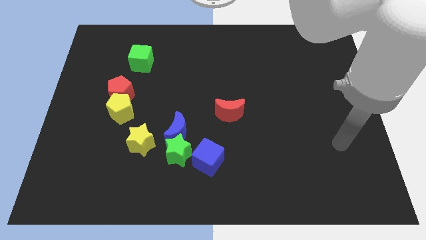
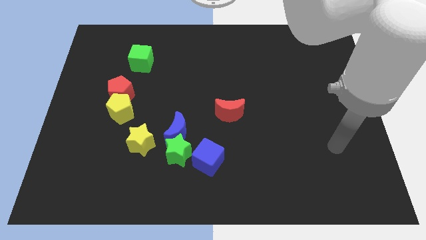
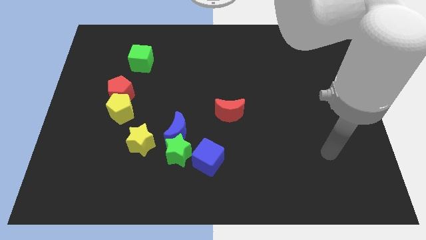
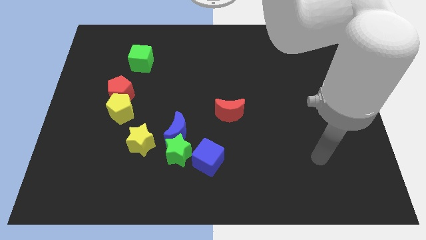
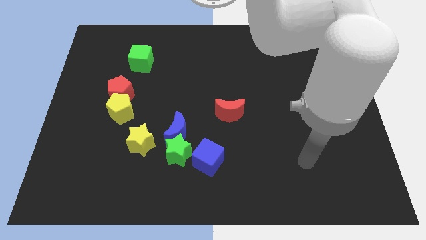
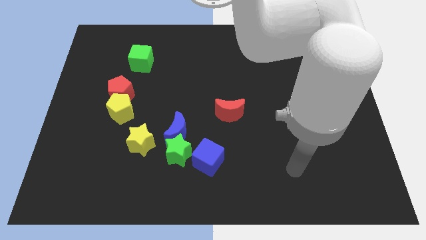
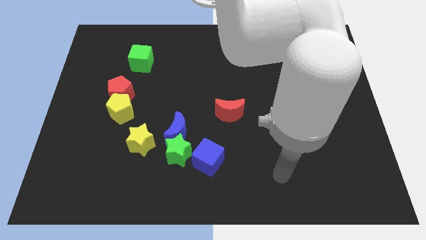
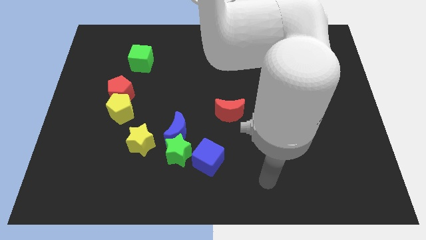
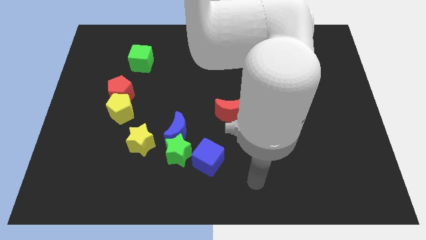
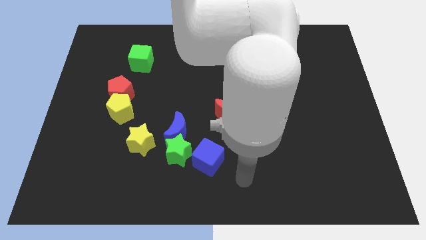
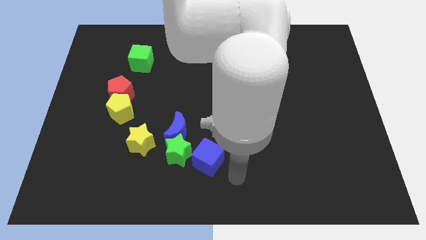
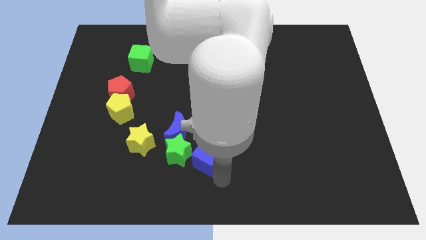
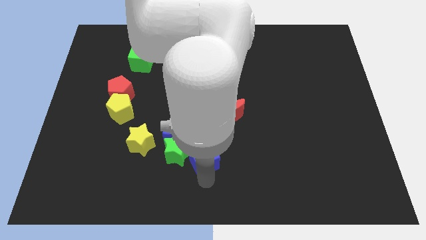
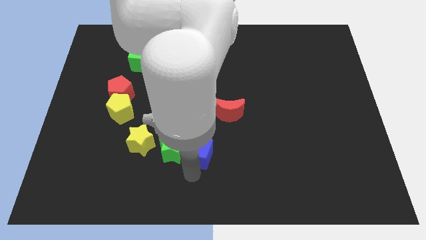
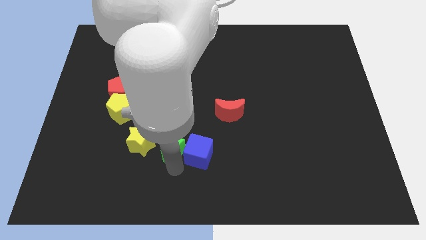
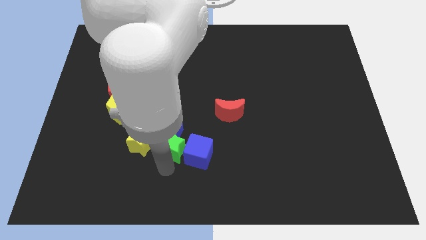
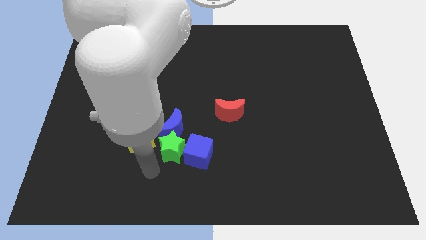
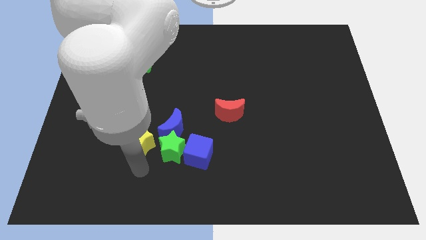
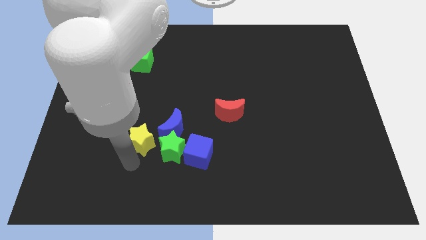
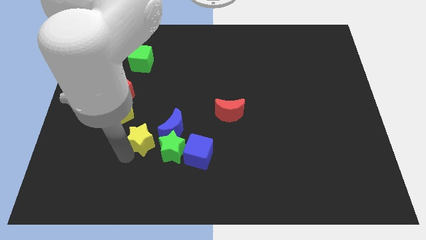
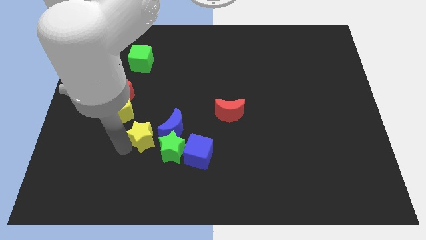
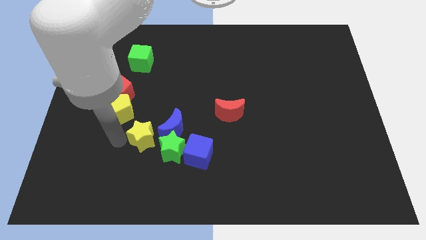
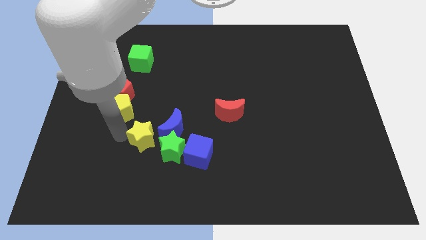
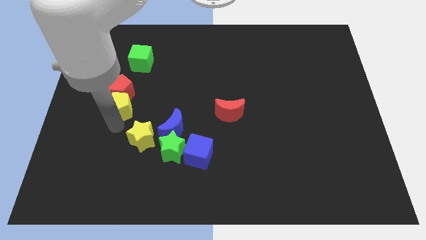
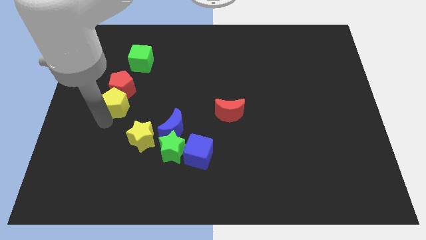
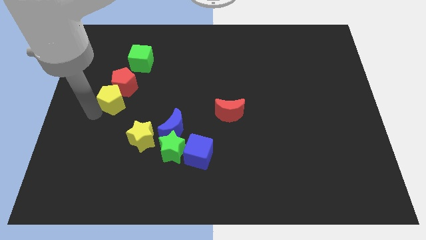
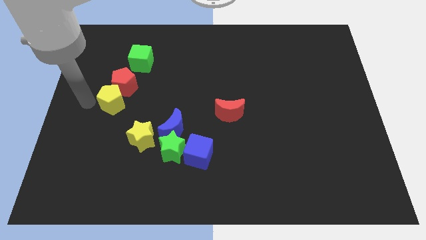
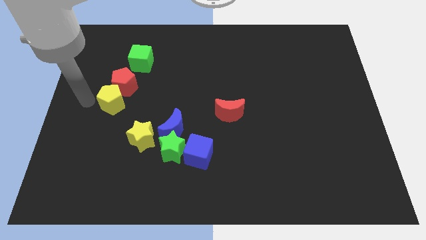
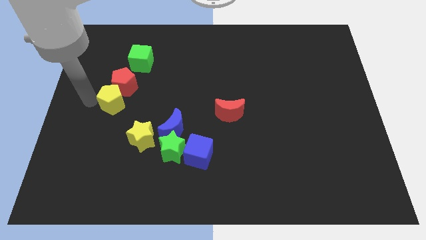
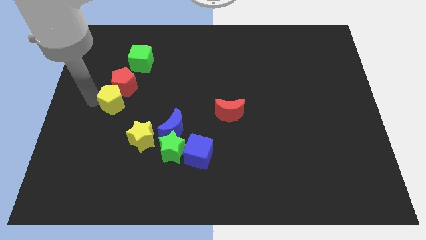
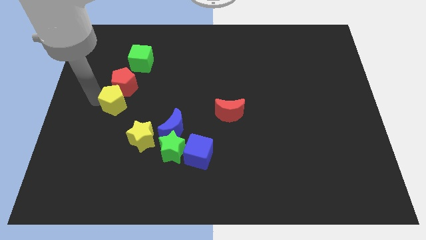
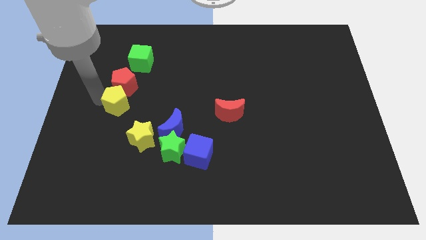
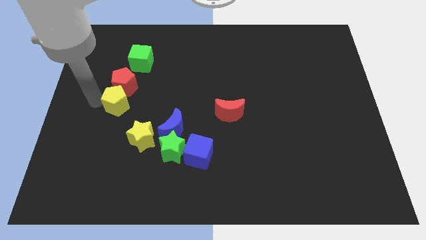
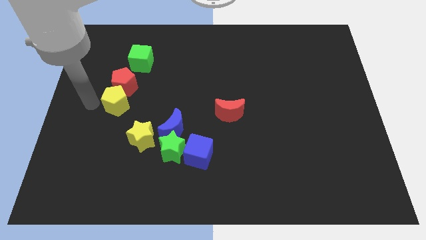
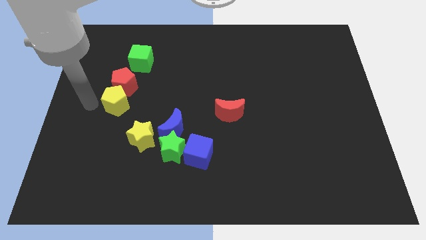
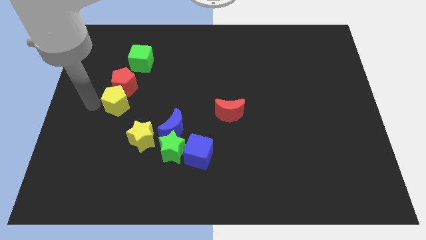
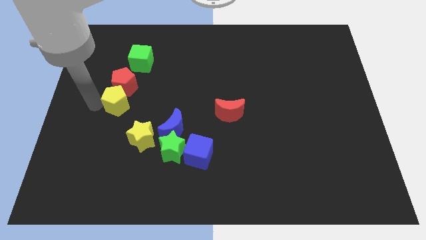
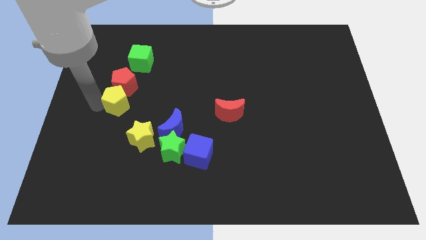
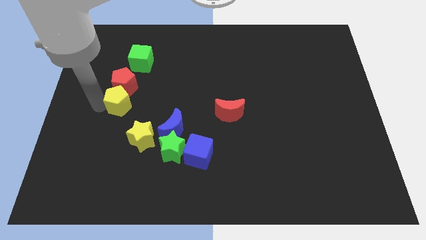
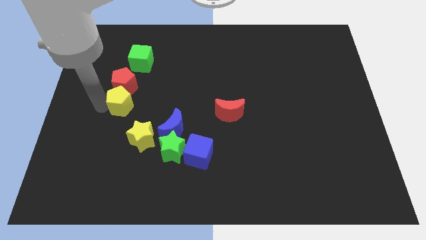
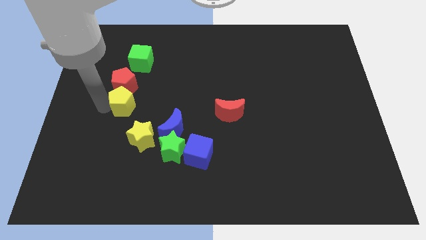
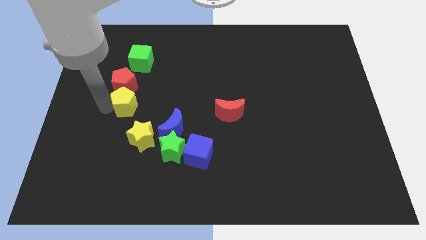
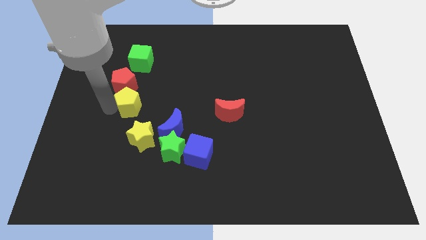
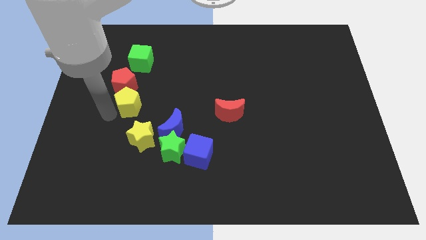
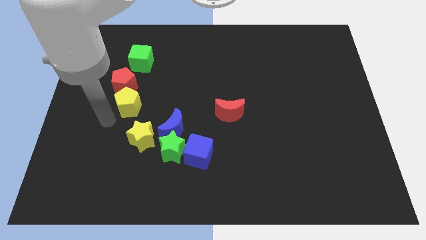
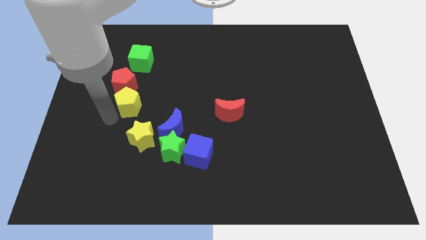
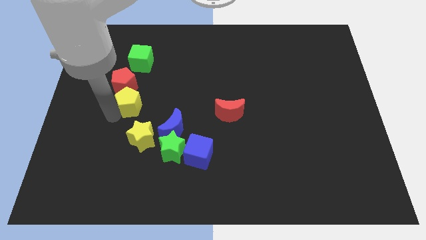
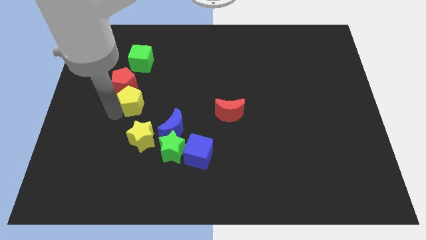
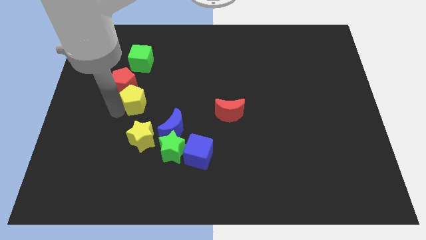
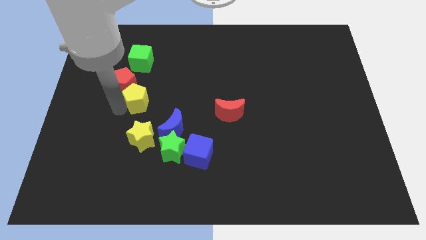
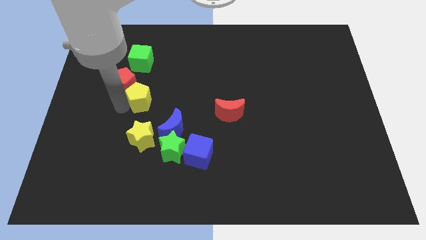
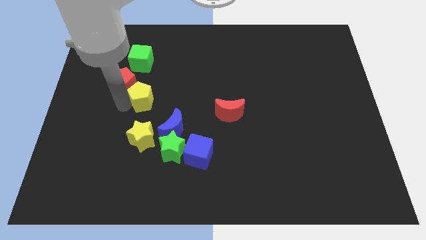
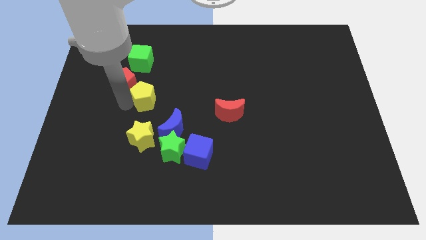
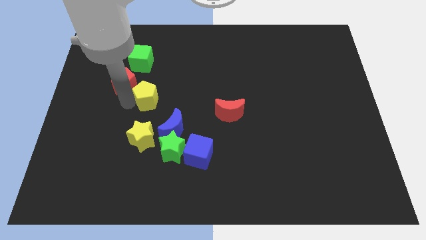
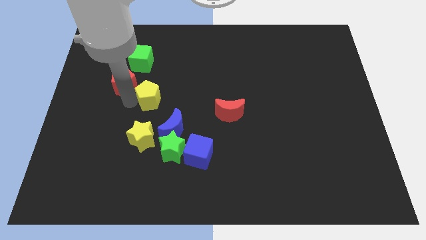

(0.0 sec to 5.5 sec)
push the yellow pentagon slightly diagonally up and to the right

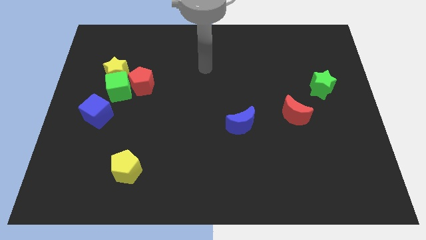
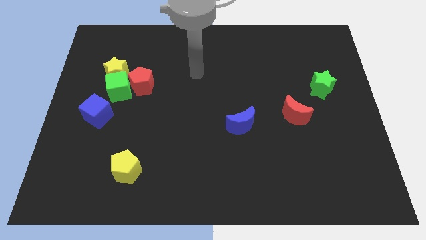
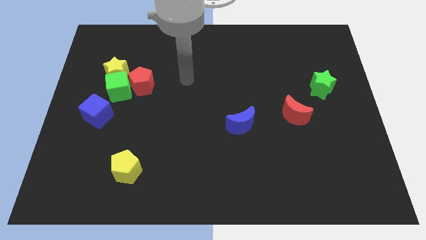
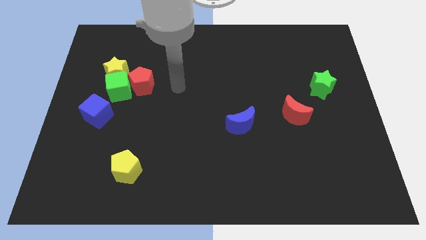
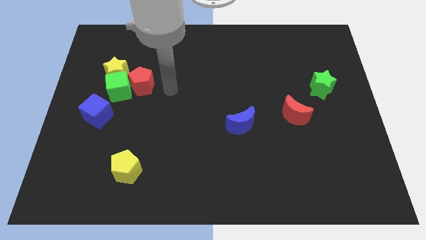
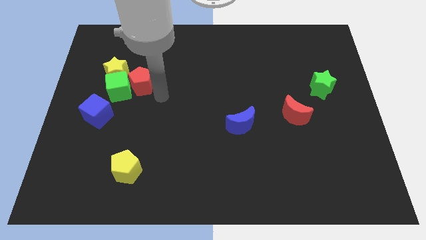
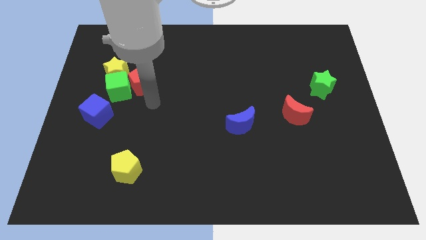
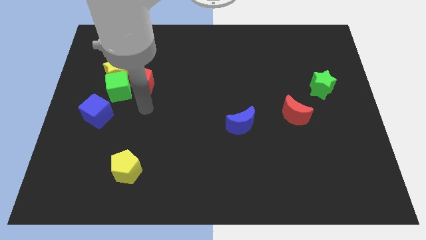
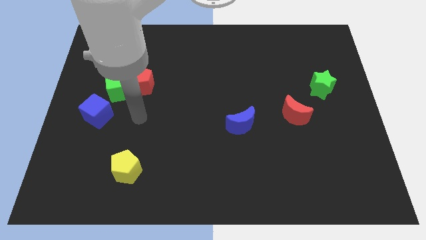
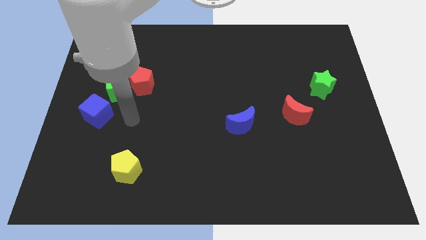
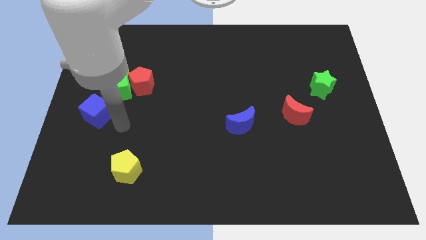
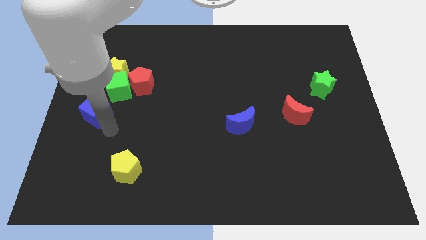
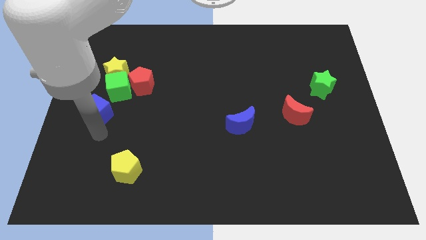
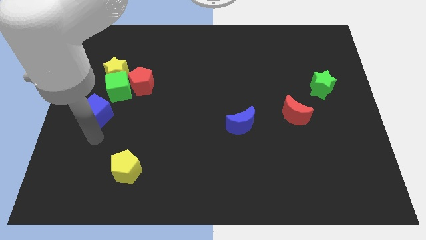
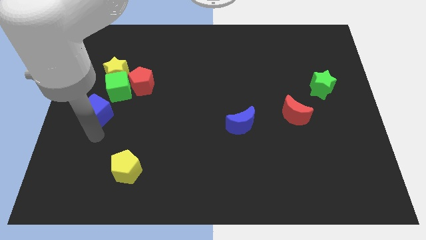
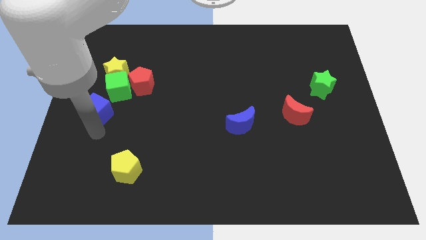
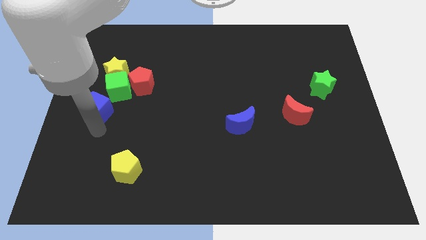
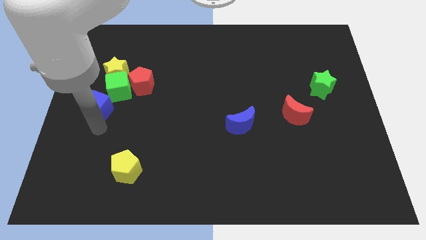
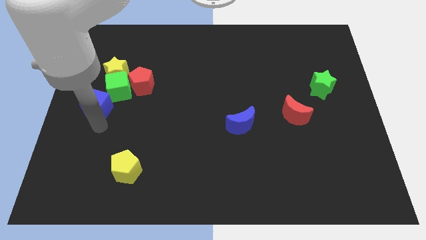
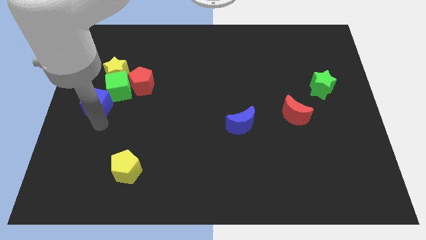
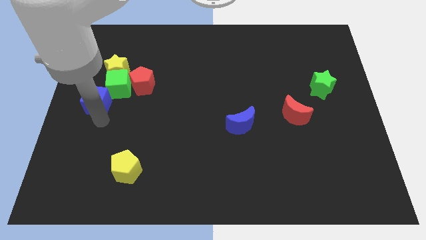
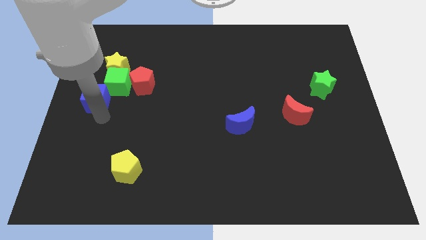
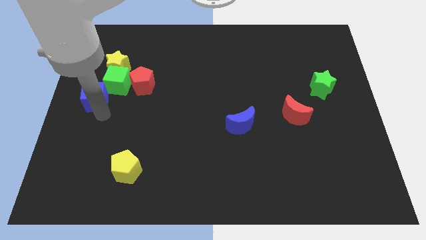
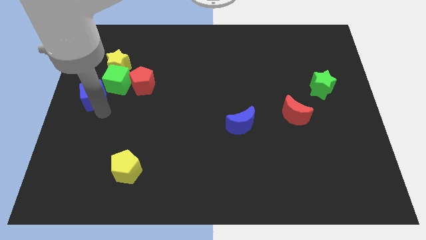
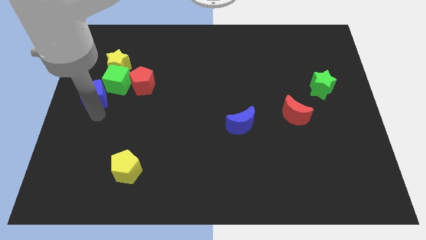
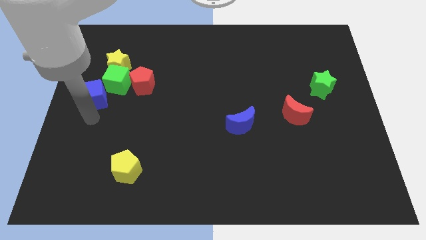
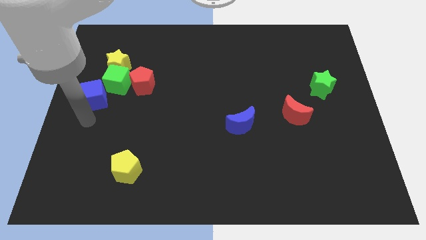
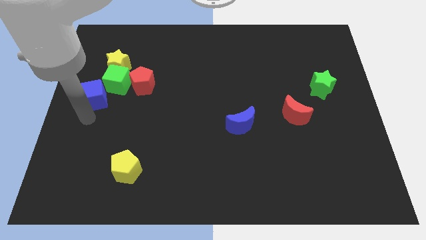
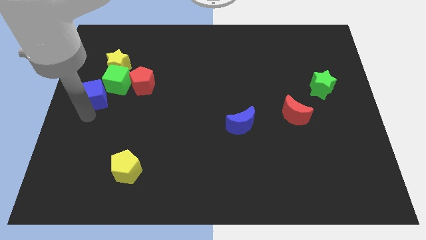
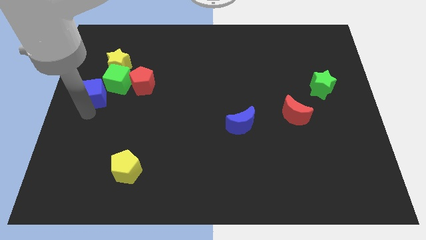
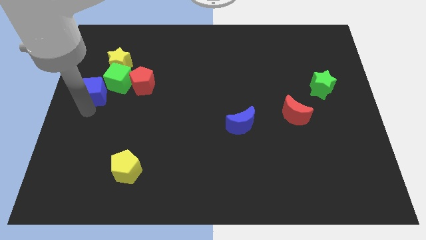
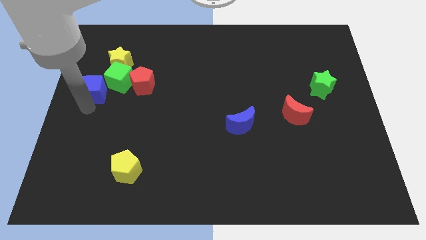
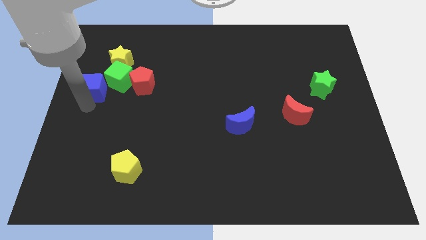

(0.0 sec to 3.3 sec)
move the blue cube a little bit up
